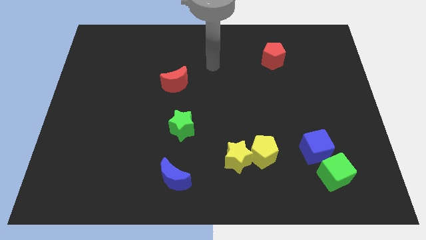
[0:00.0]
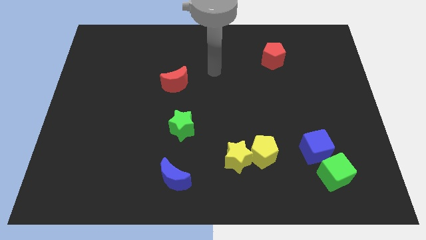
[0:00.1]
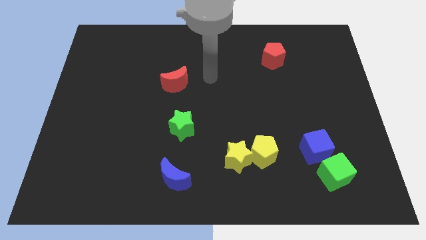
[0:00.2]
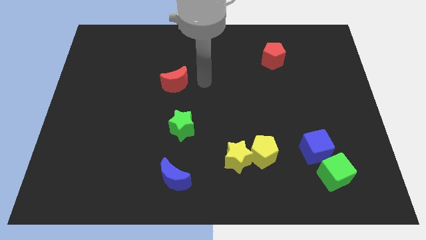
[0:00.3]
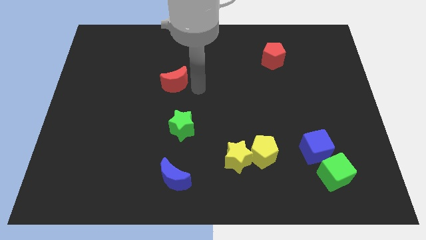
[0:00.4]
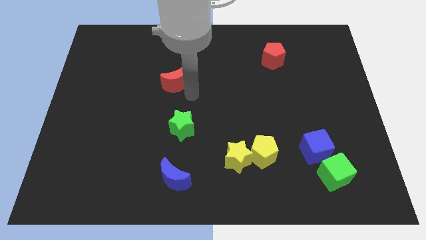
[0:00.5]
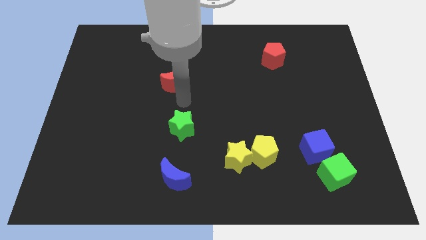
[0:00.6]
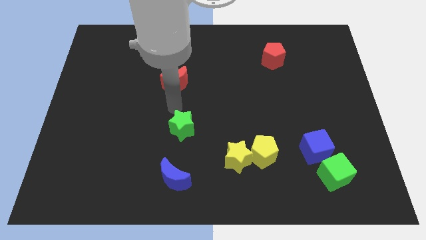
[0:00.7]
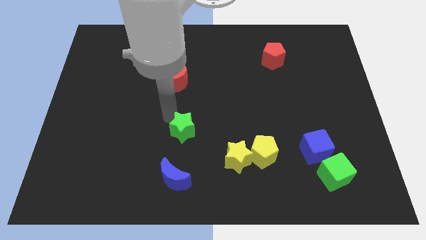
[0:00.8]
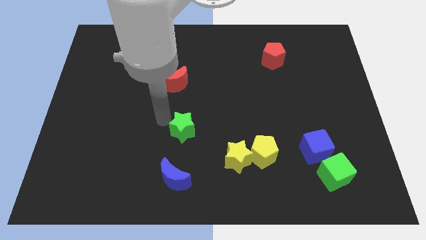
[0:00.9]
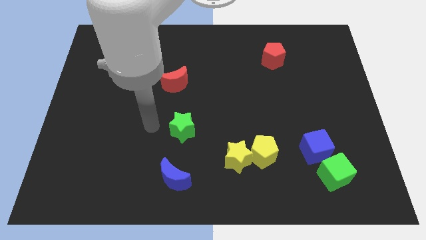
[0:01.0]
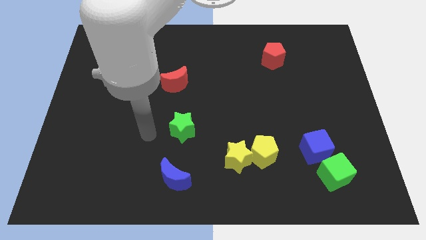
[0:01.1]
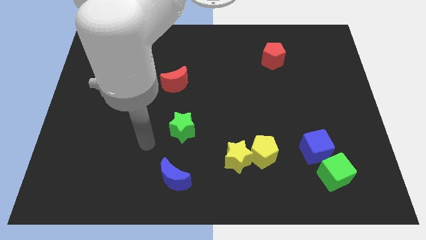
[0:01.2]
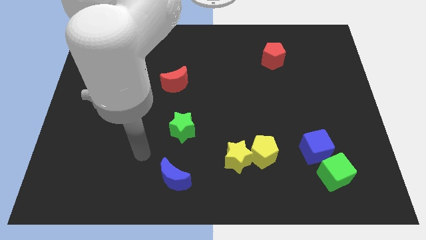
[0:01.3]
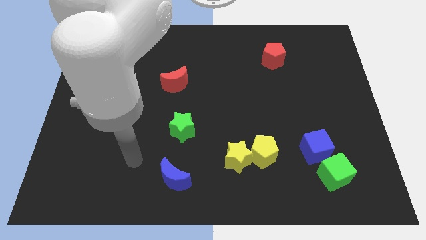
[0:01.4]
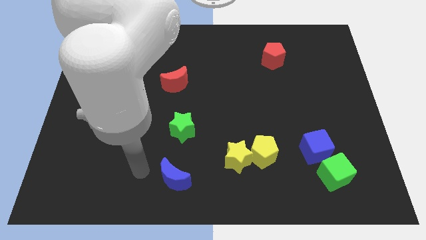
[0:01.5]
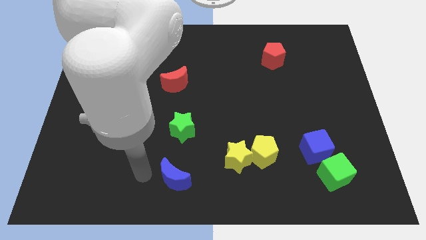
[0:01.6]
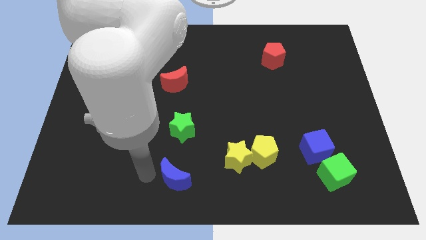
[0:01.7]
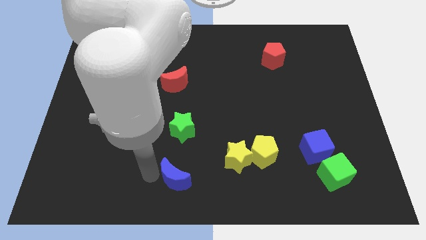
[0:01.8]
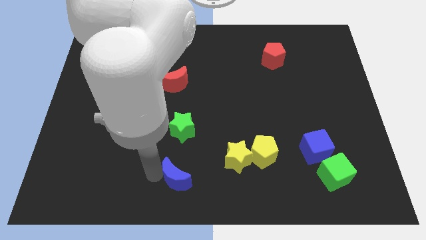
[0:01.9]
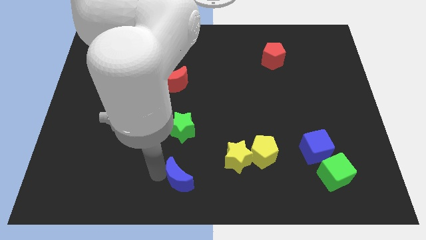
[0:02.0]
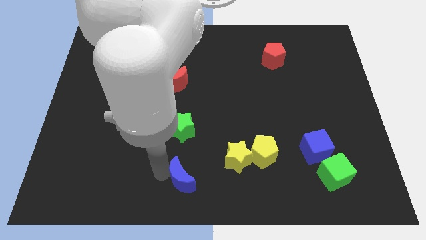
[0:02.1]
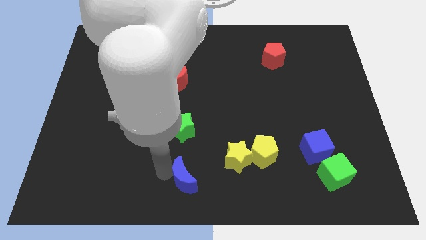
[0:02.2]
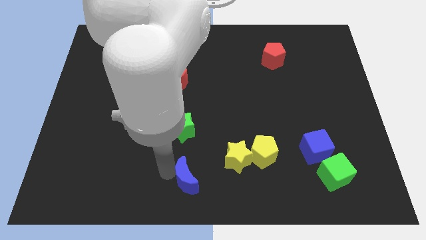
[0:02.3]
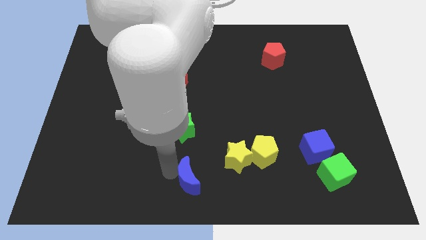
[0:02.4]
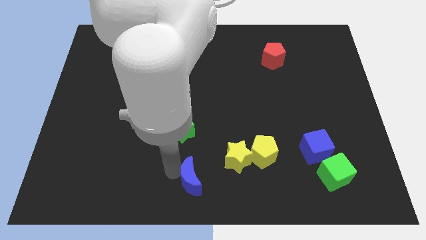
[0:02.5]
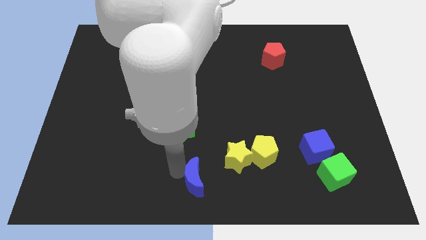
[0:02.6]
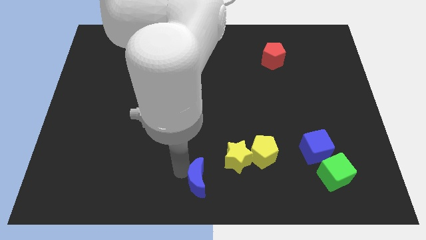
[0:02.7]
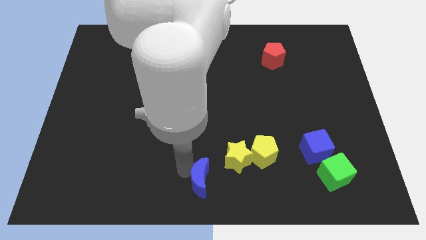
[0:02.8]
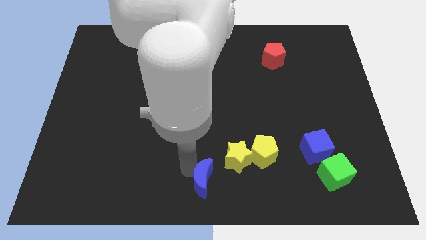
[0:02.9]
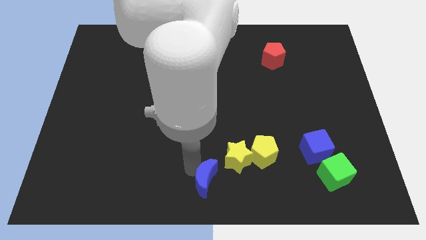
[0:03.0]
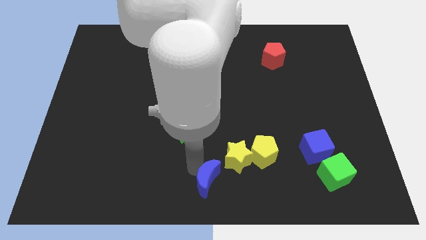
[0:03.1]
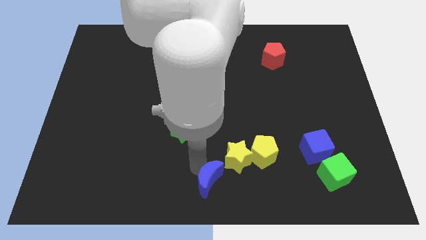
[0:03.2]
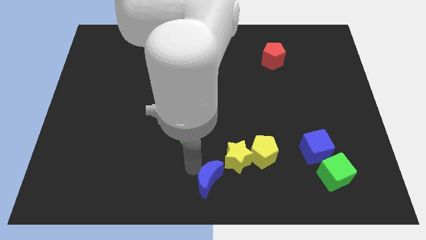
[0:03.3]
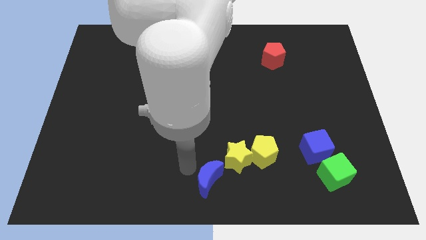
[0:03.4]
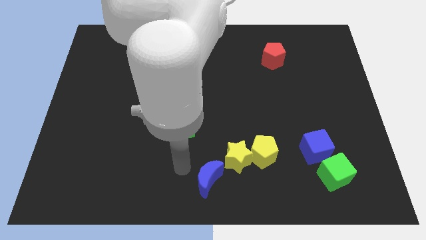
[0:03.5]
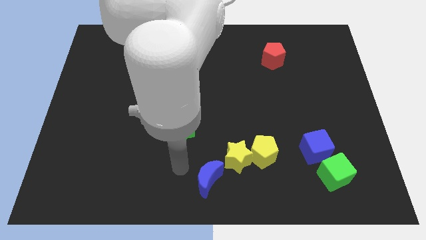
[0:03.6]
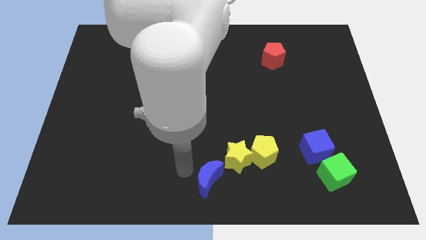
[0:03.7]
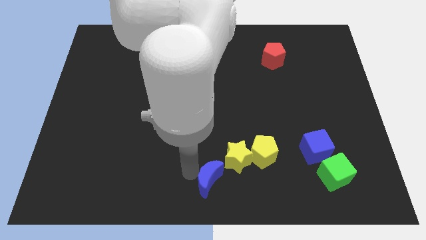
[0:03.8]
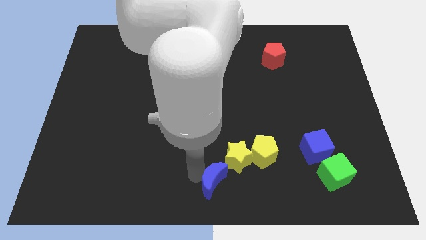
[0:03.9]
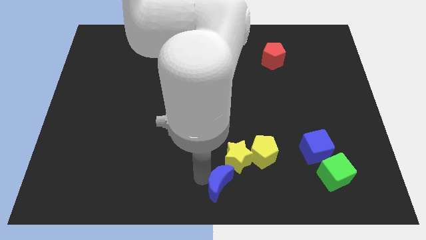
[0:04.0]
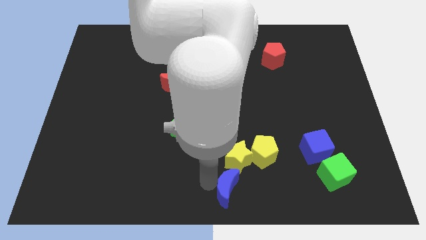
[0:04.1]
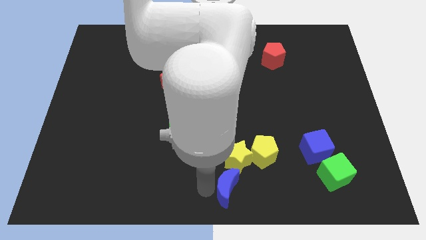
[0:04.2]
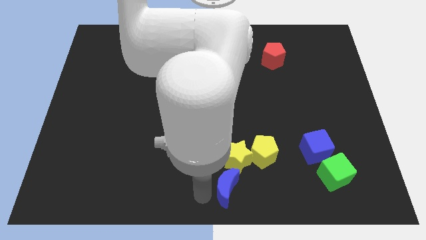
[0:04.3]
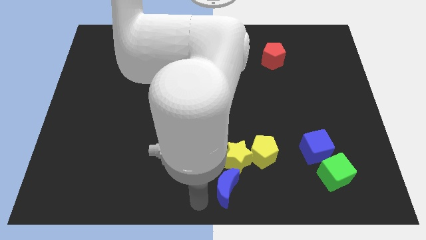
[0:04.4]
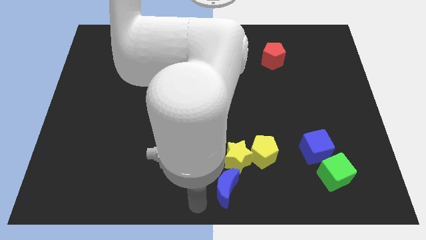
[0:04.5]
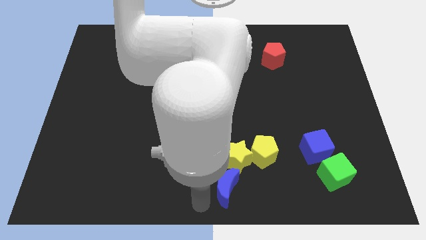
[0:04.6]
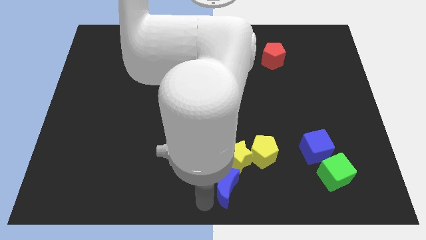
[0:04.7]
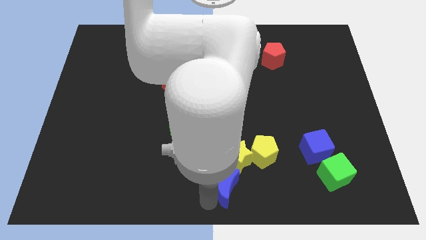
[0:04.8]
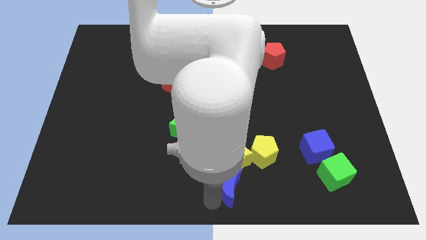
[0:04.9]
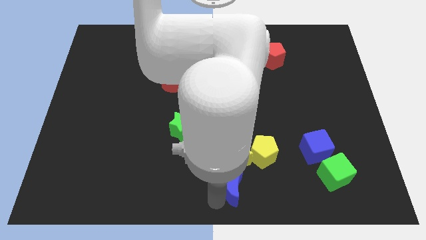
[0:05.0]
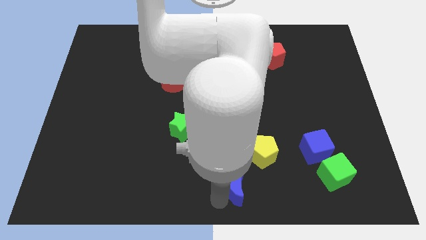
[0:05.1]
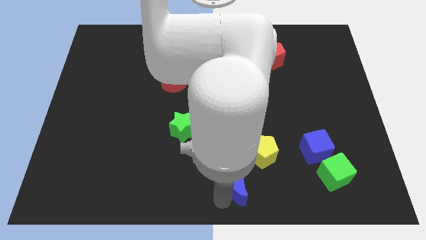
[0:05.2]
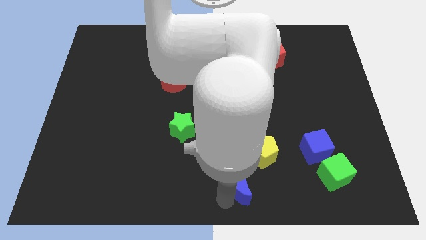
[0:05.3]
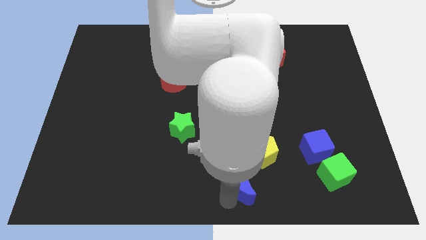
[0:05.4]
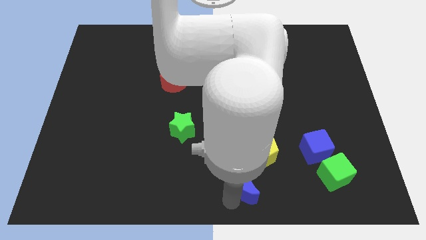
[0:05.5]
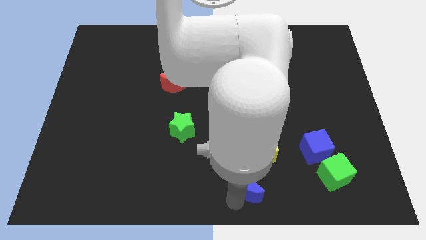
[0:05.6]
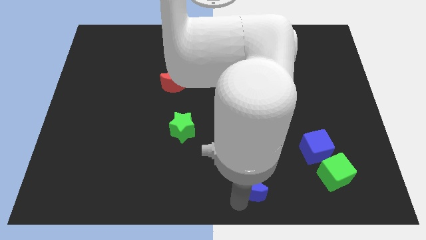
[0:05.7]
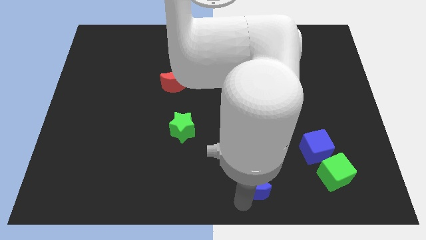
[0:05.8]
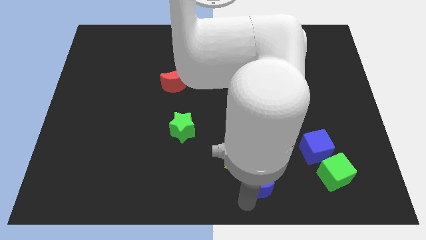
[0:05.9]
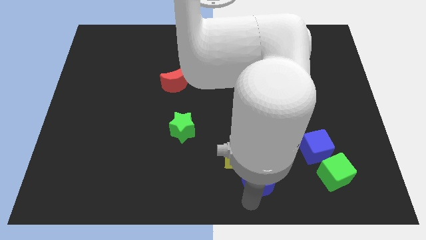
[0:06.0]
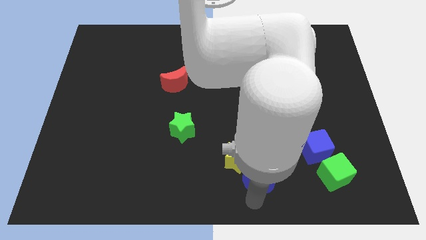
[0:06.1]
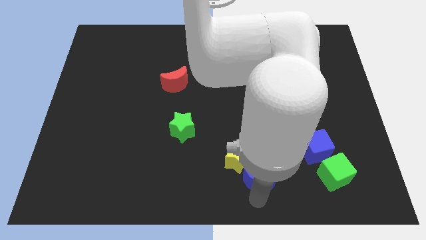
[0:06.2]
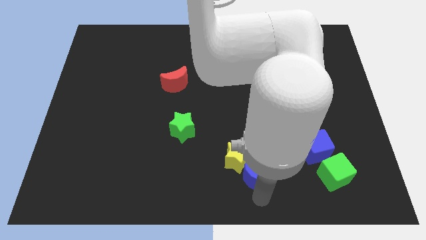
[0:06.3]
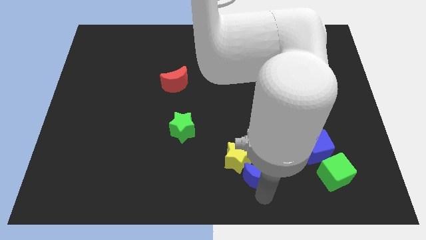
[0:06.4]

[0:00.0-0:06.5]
put the blue moon to the yellow pentagon
